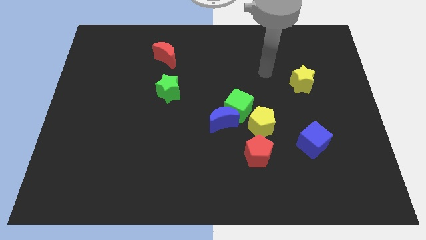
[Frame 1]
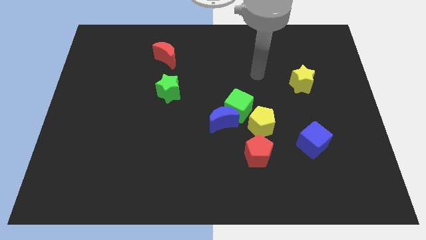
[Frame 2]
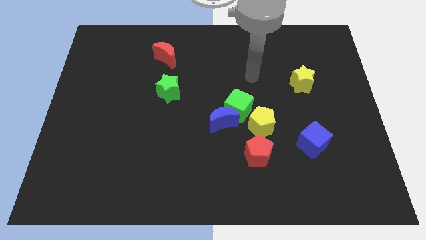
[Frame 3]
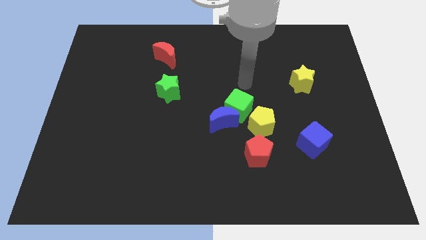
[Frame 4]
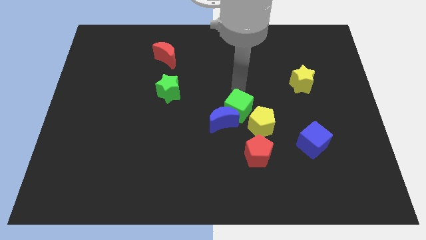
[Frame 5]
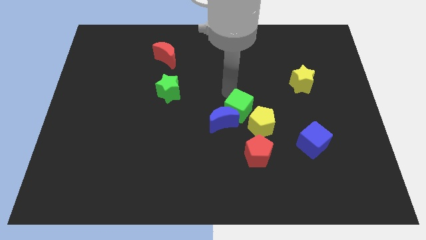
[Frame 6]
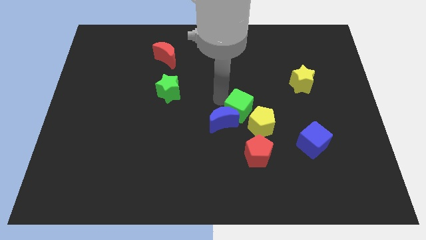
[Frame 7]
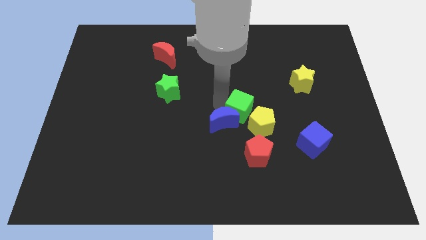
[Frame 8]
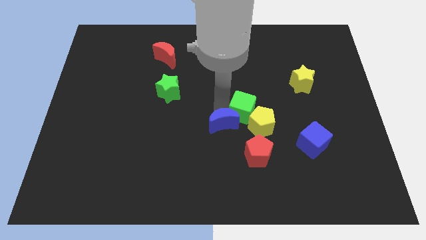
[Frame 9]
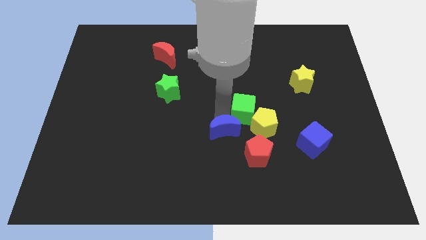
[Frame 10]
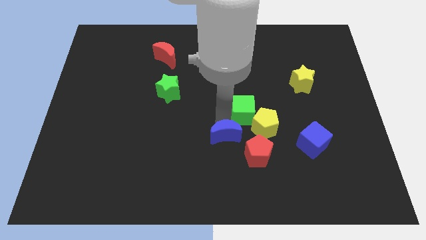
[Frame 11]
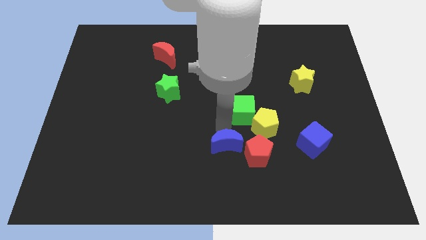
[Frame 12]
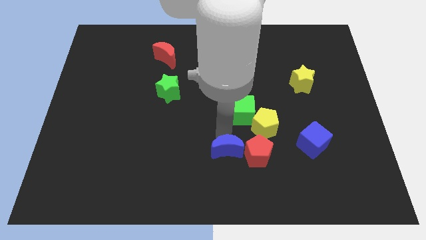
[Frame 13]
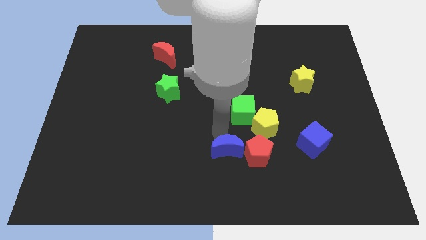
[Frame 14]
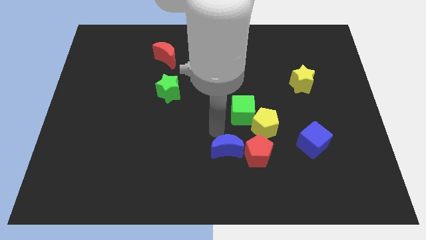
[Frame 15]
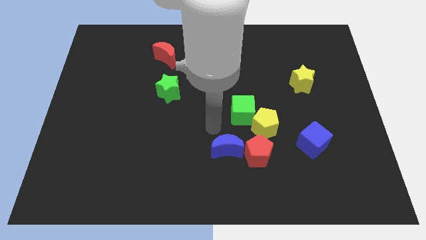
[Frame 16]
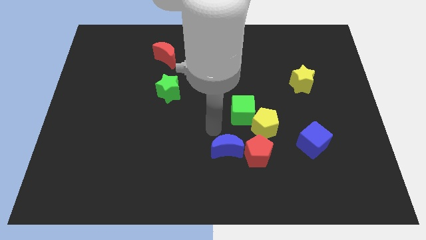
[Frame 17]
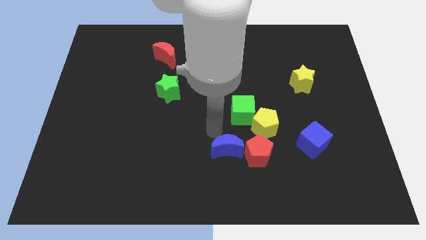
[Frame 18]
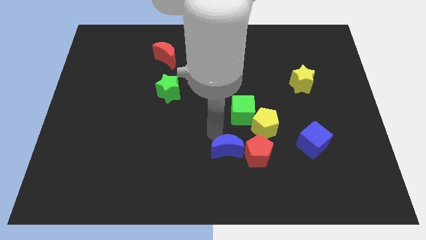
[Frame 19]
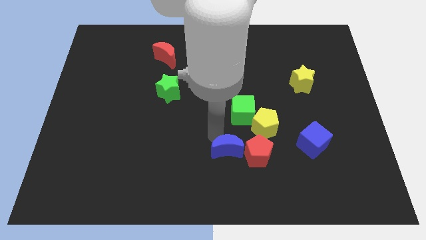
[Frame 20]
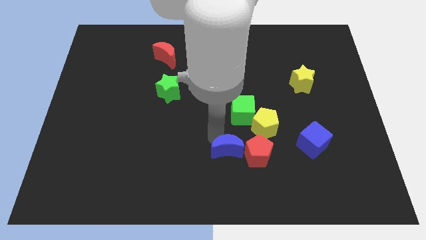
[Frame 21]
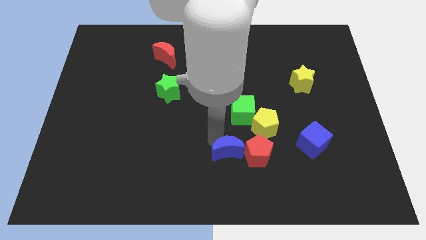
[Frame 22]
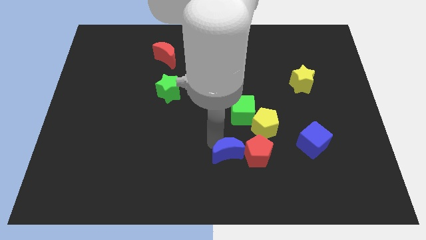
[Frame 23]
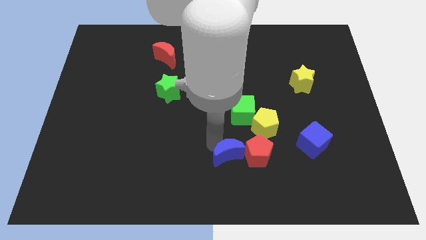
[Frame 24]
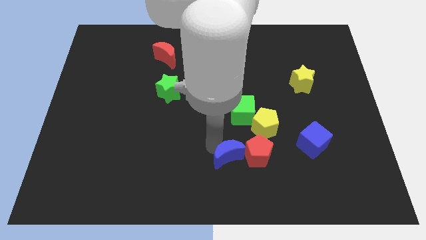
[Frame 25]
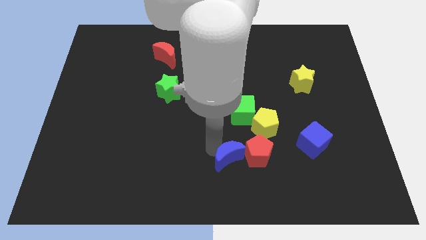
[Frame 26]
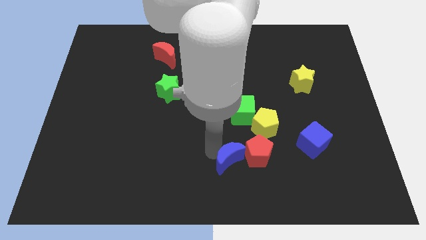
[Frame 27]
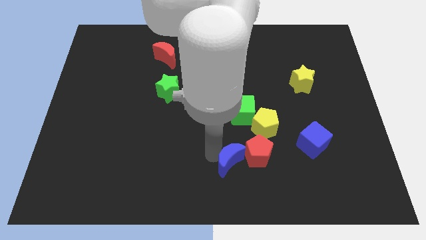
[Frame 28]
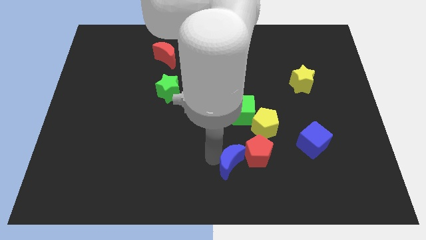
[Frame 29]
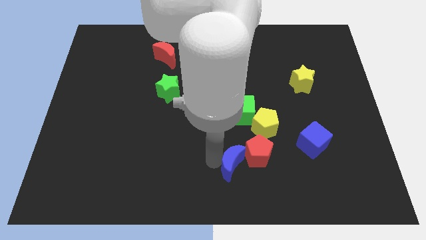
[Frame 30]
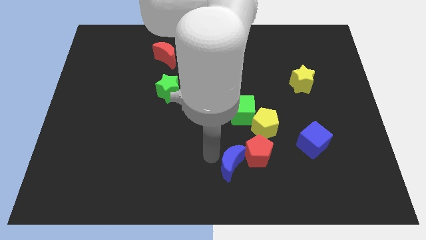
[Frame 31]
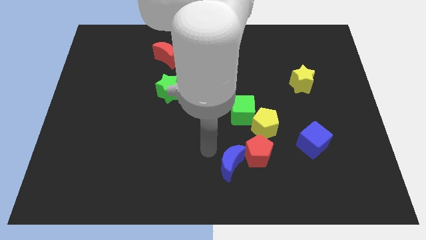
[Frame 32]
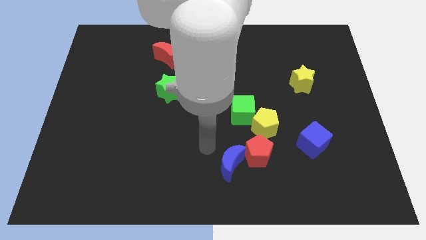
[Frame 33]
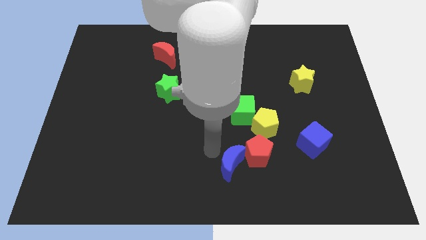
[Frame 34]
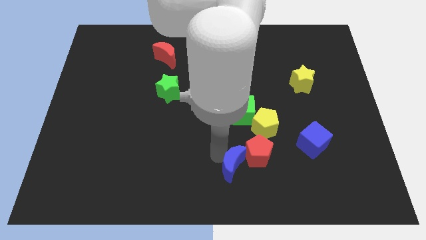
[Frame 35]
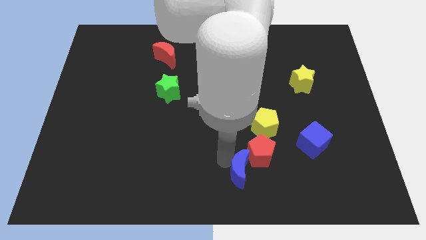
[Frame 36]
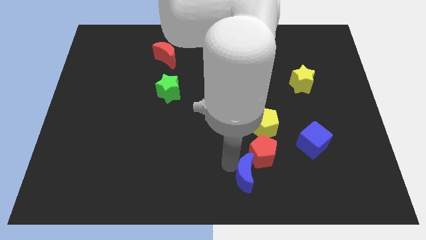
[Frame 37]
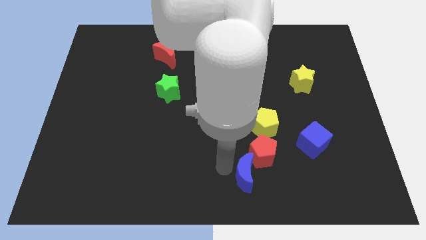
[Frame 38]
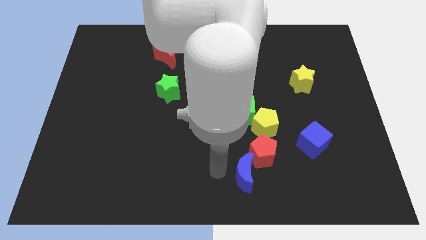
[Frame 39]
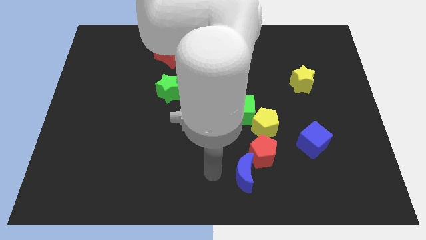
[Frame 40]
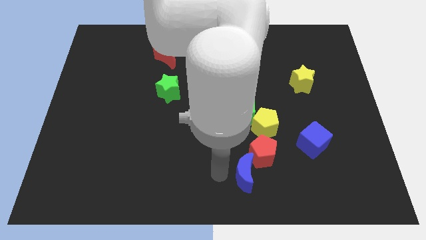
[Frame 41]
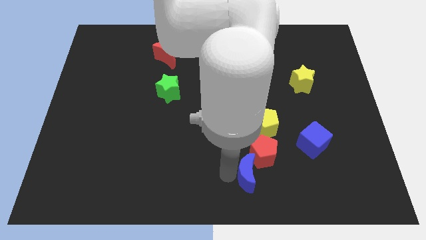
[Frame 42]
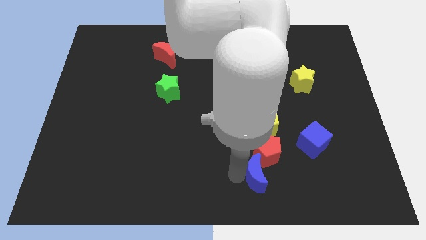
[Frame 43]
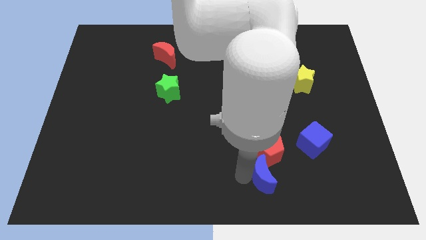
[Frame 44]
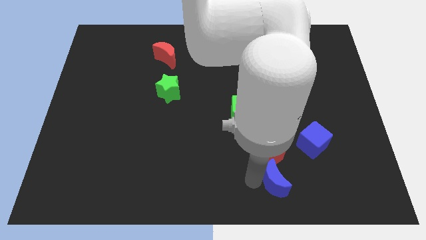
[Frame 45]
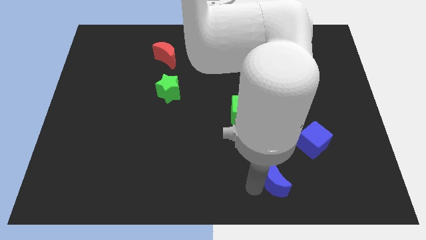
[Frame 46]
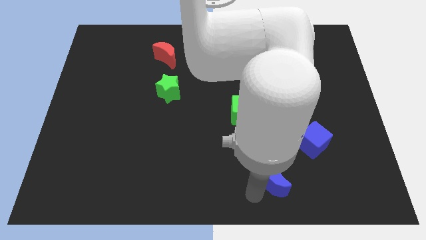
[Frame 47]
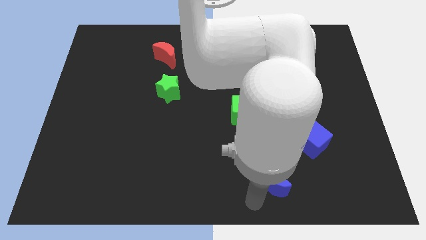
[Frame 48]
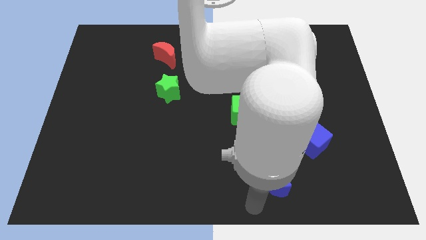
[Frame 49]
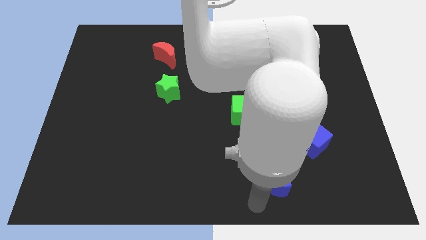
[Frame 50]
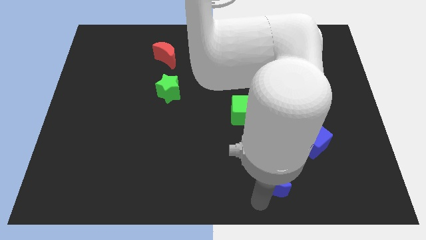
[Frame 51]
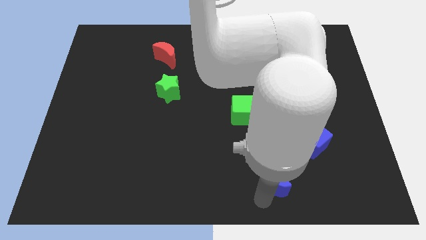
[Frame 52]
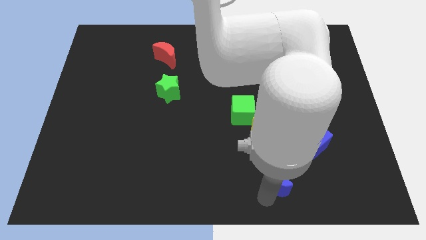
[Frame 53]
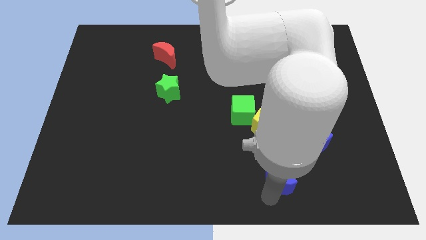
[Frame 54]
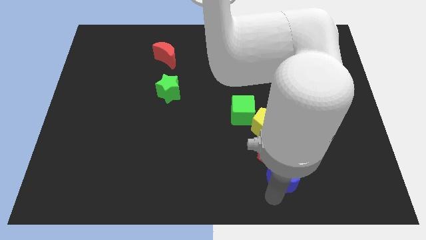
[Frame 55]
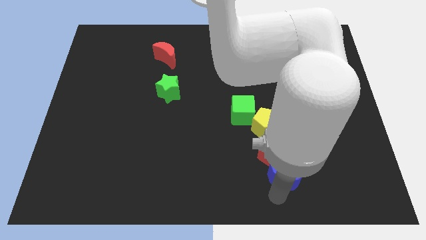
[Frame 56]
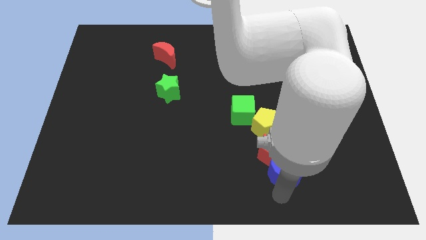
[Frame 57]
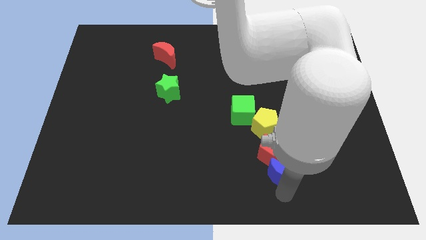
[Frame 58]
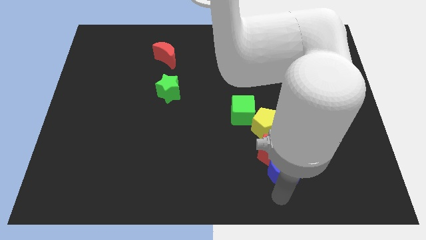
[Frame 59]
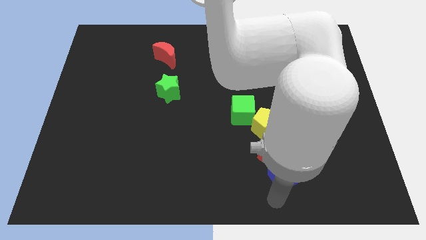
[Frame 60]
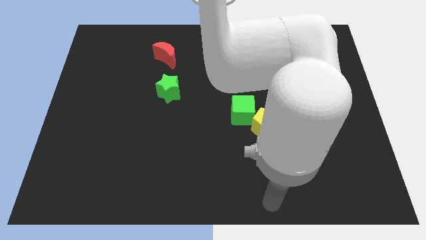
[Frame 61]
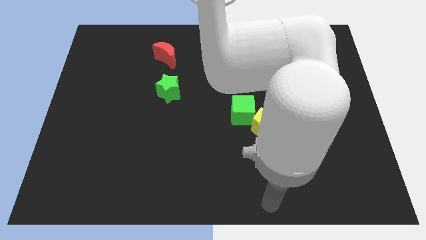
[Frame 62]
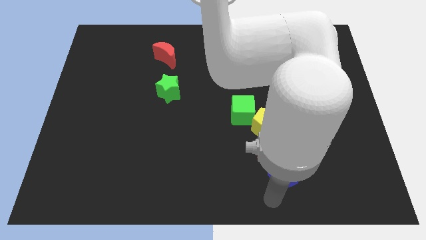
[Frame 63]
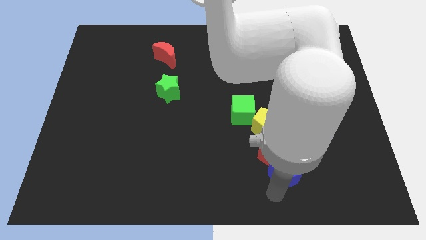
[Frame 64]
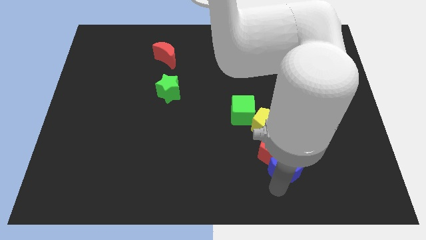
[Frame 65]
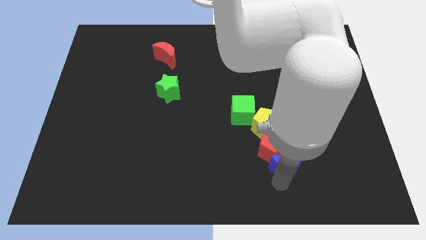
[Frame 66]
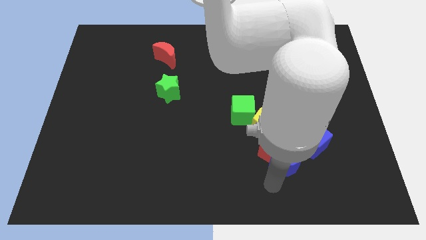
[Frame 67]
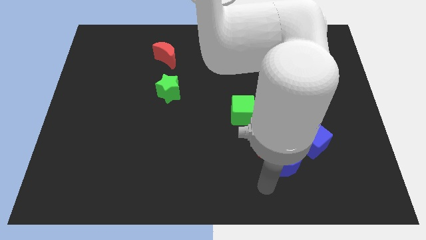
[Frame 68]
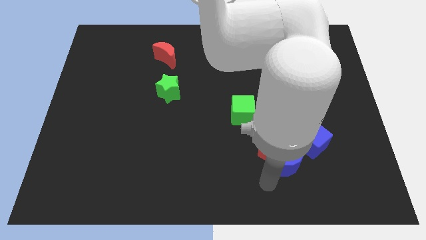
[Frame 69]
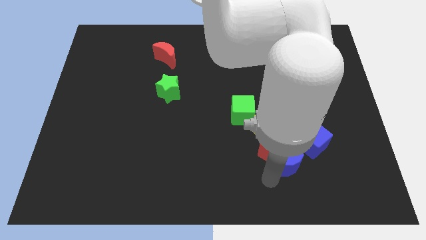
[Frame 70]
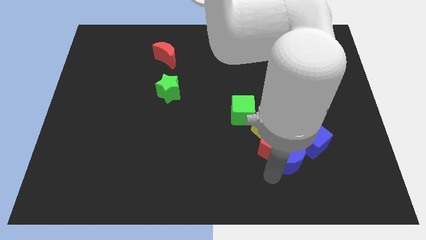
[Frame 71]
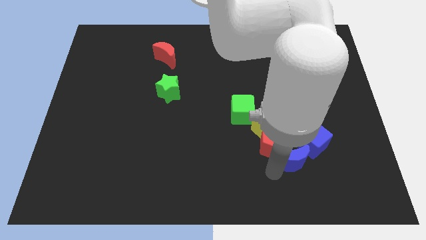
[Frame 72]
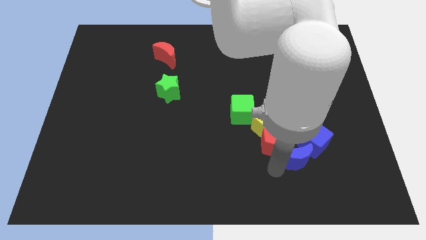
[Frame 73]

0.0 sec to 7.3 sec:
put the blue moon to the blue cube
